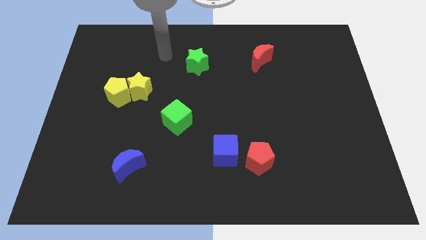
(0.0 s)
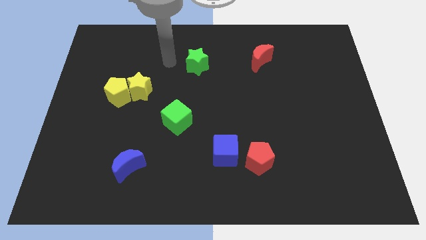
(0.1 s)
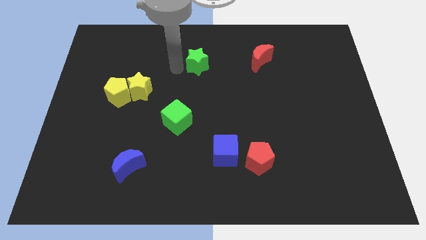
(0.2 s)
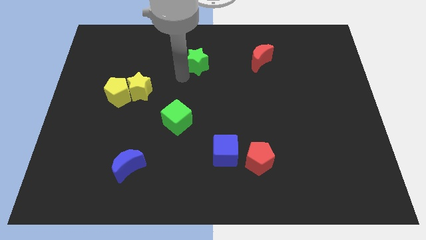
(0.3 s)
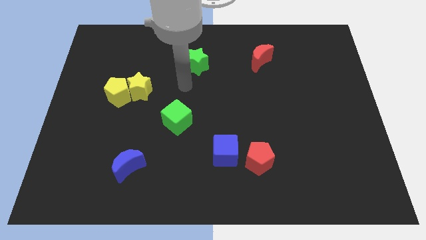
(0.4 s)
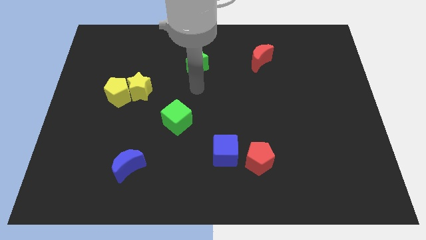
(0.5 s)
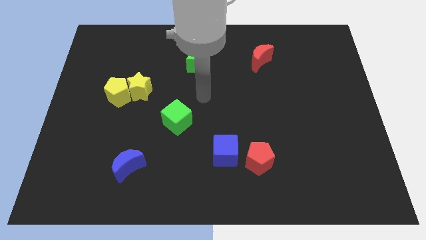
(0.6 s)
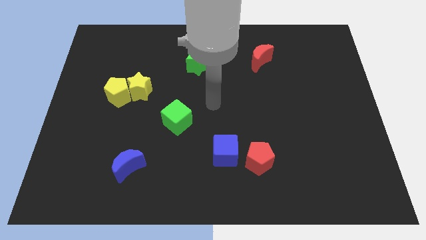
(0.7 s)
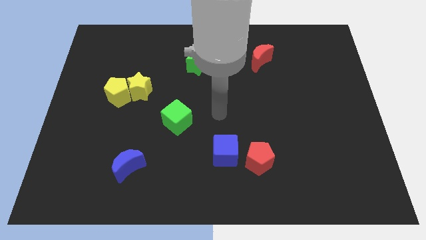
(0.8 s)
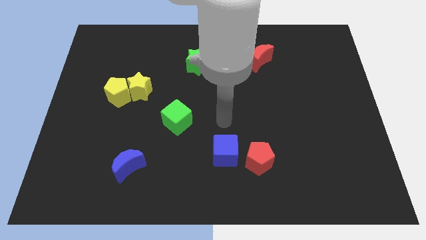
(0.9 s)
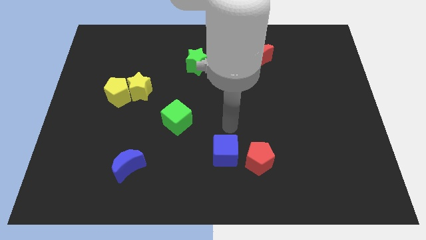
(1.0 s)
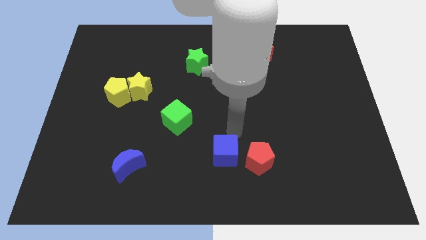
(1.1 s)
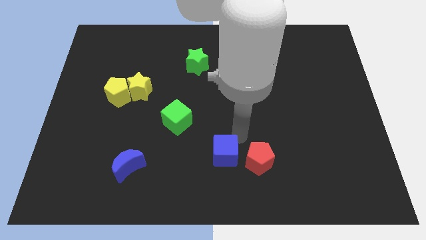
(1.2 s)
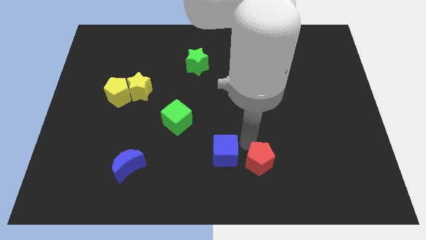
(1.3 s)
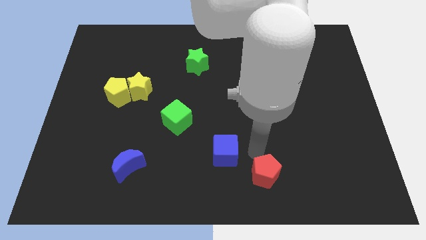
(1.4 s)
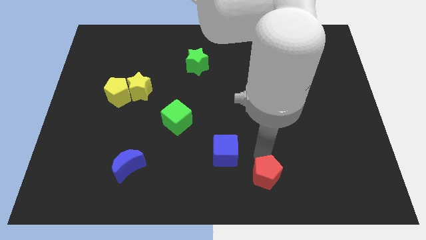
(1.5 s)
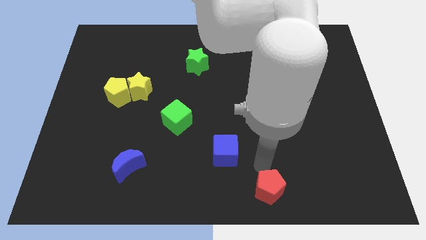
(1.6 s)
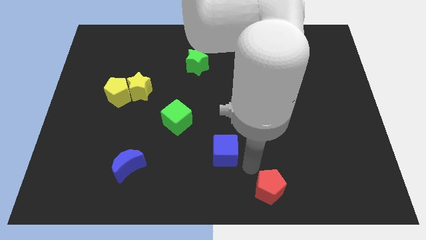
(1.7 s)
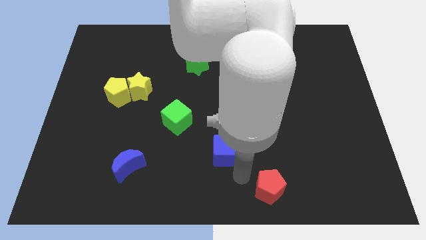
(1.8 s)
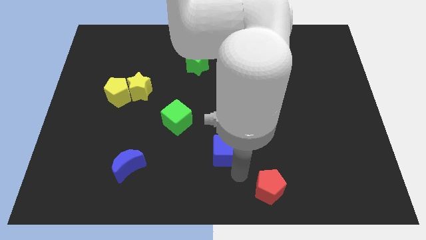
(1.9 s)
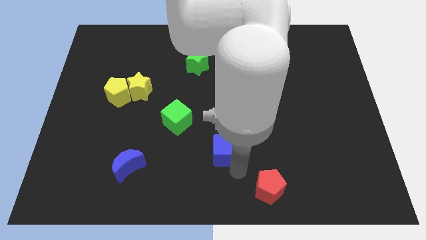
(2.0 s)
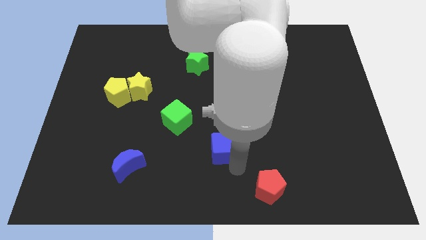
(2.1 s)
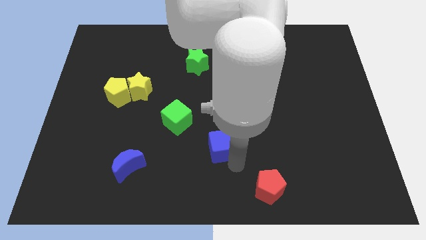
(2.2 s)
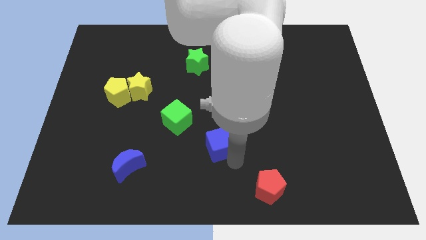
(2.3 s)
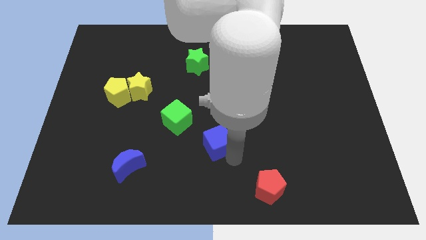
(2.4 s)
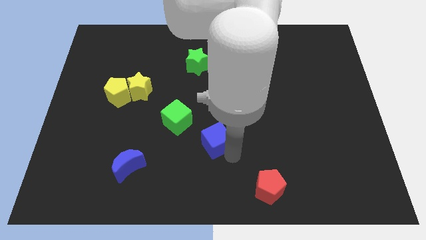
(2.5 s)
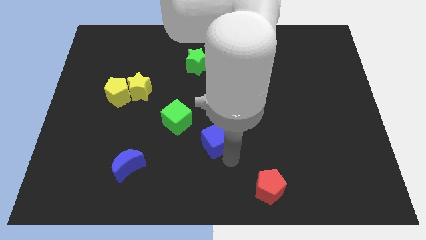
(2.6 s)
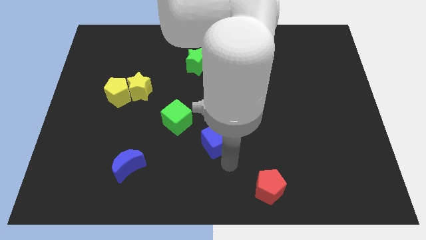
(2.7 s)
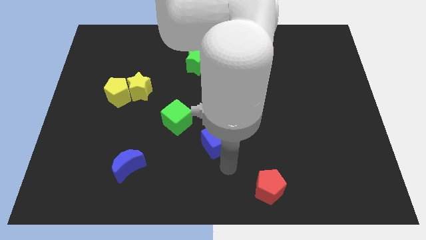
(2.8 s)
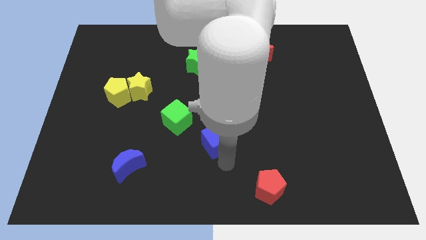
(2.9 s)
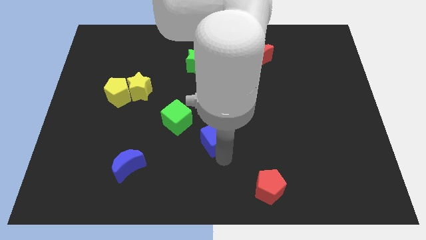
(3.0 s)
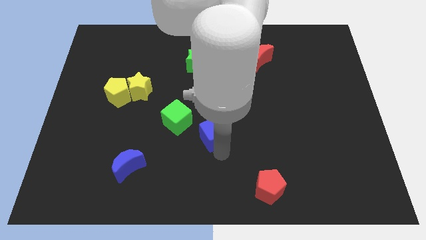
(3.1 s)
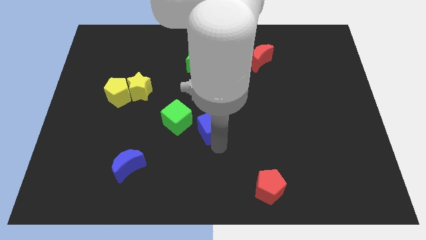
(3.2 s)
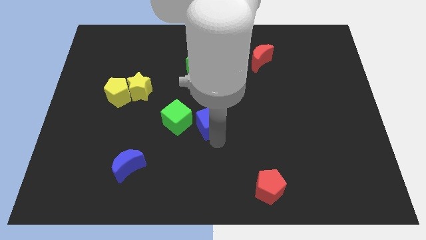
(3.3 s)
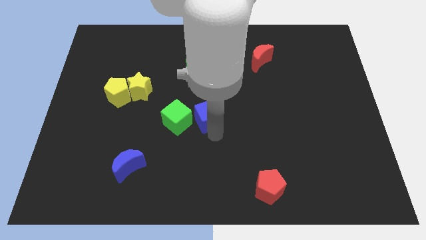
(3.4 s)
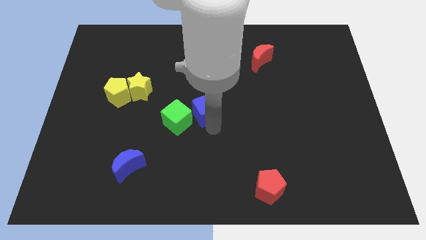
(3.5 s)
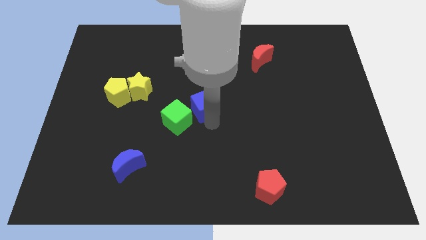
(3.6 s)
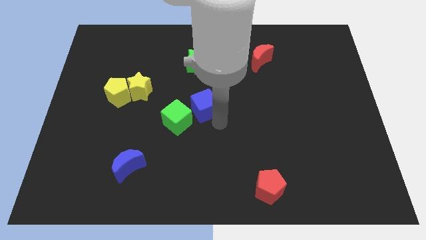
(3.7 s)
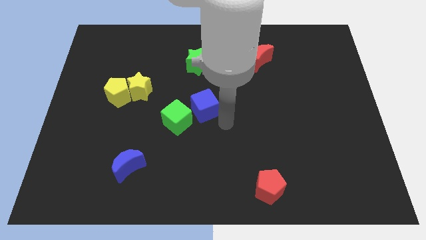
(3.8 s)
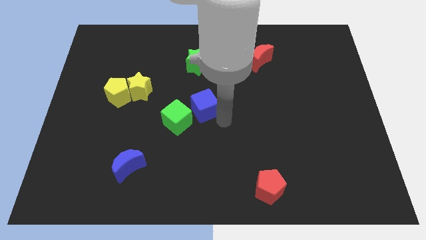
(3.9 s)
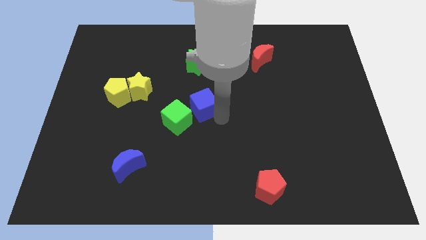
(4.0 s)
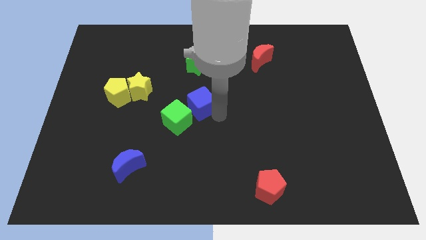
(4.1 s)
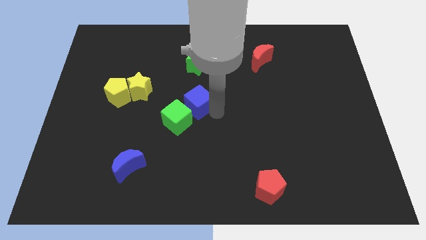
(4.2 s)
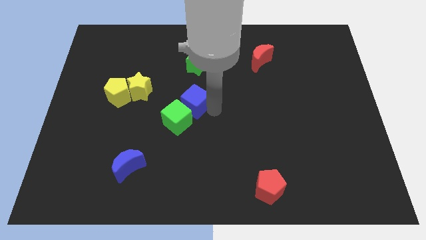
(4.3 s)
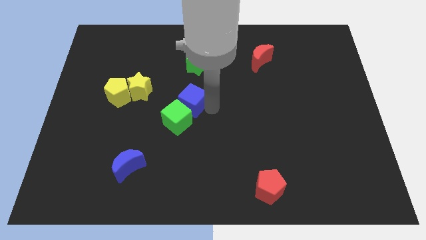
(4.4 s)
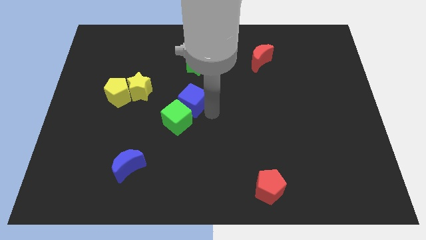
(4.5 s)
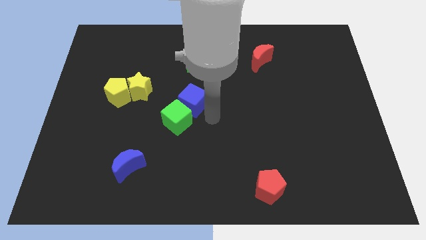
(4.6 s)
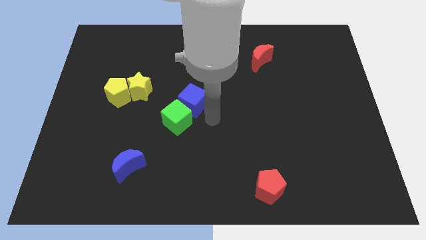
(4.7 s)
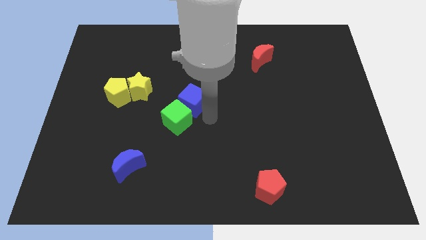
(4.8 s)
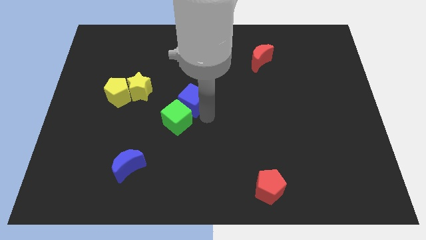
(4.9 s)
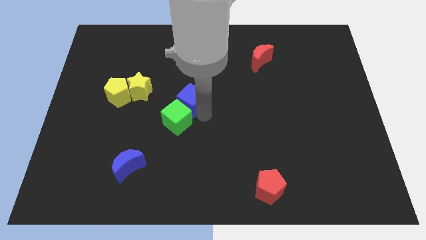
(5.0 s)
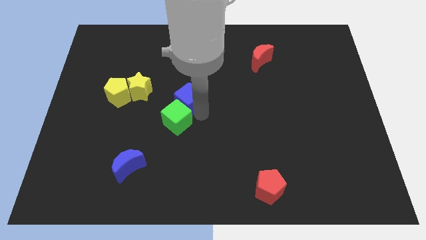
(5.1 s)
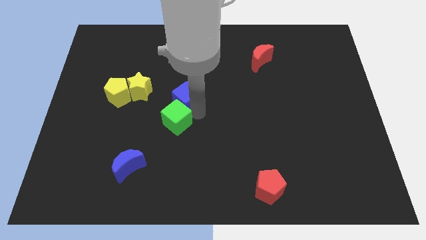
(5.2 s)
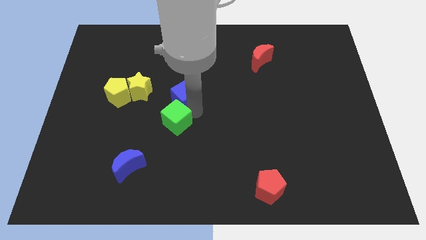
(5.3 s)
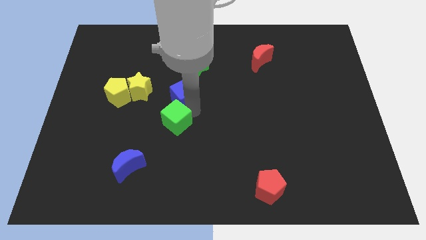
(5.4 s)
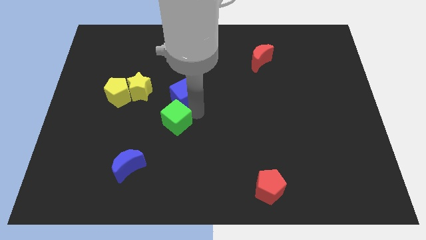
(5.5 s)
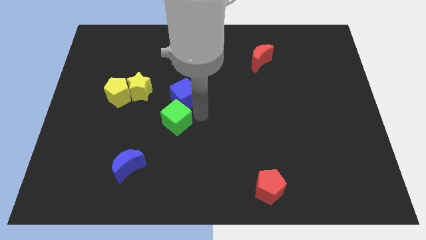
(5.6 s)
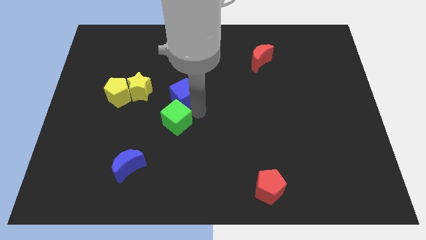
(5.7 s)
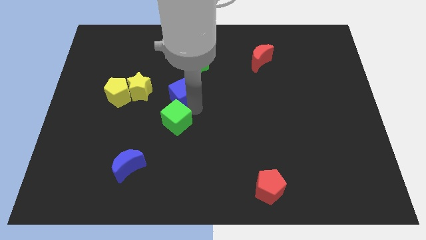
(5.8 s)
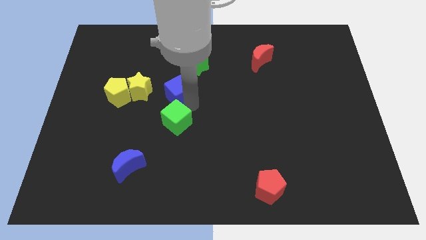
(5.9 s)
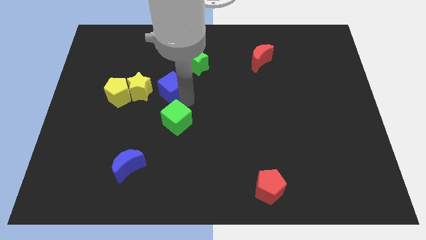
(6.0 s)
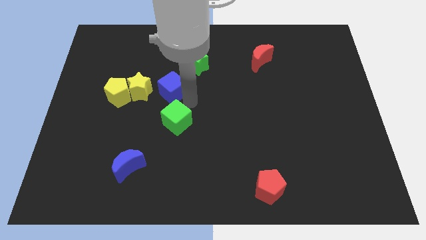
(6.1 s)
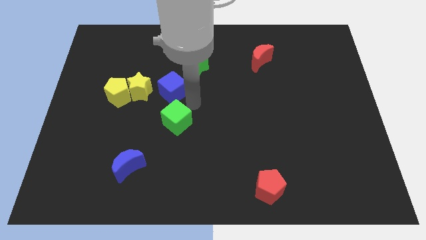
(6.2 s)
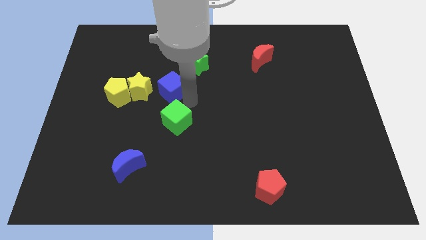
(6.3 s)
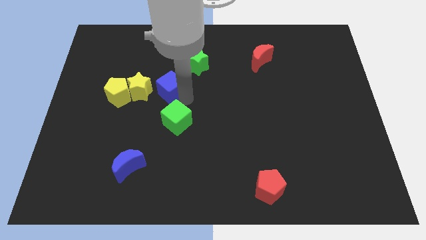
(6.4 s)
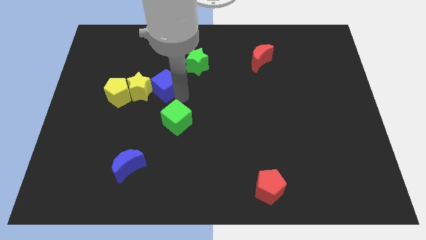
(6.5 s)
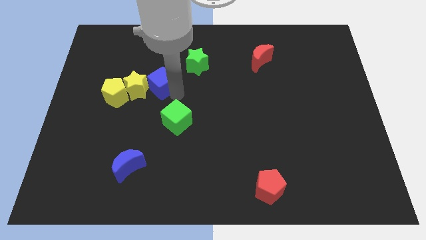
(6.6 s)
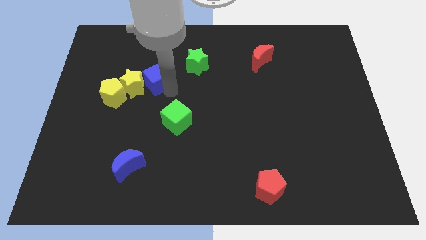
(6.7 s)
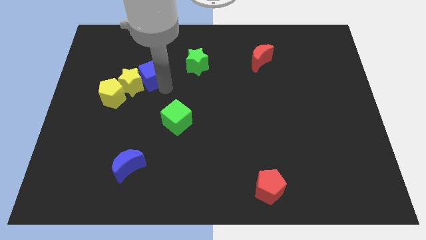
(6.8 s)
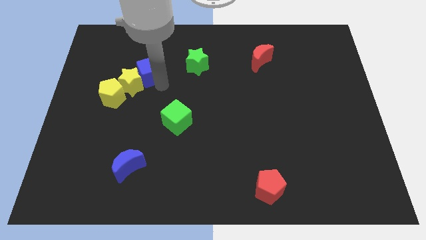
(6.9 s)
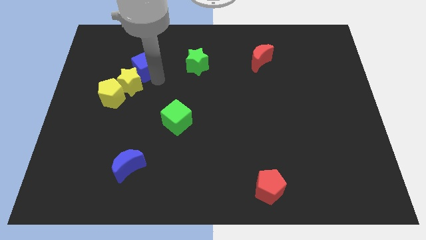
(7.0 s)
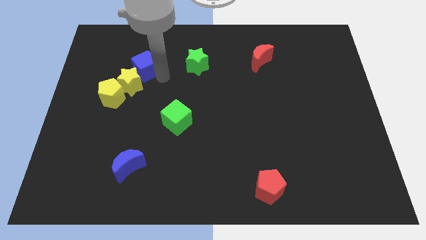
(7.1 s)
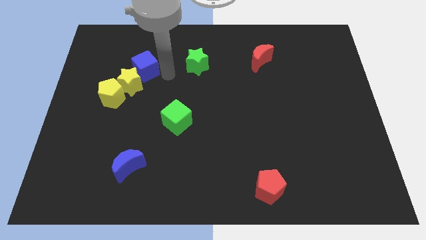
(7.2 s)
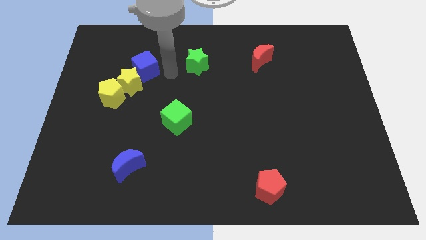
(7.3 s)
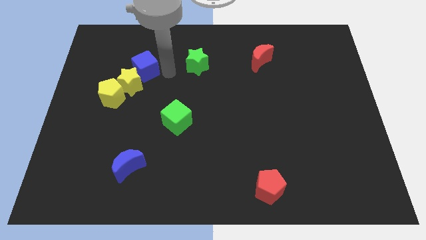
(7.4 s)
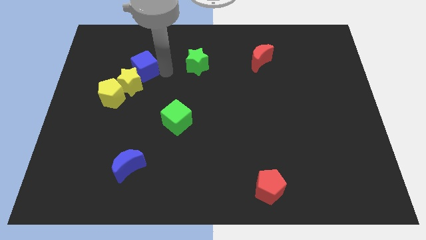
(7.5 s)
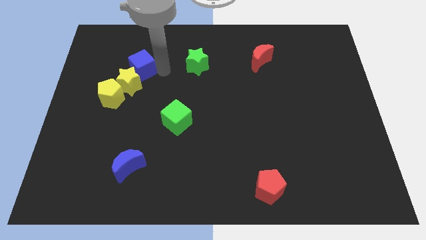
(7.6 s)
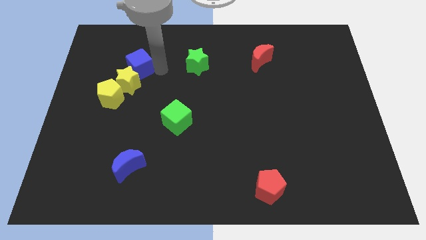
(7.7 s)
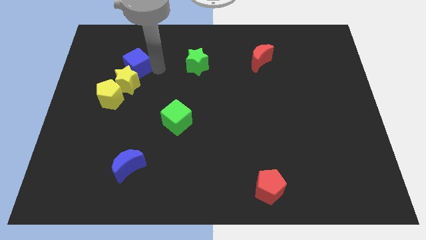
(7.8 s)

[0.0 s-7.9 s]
put the blue cube to the top side of the yellow pentagon
